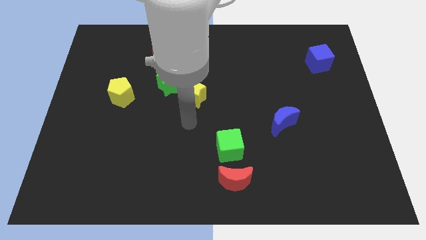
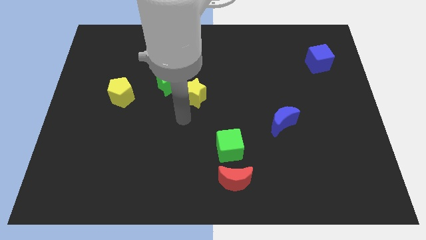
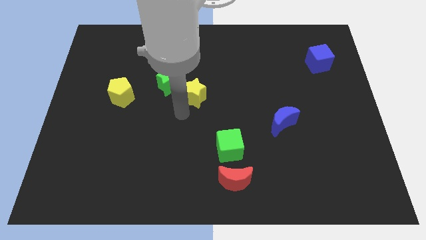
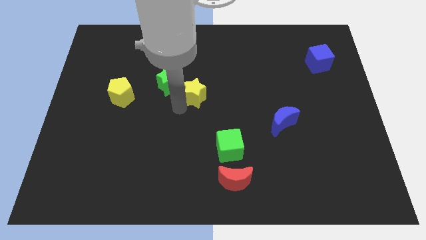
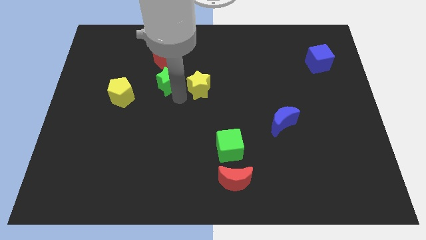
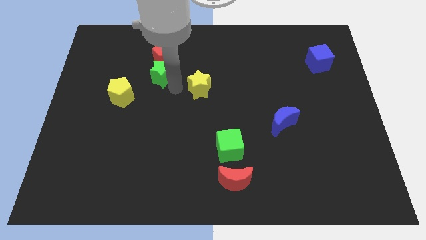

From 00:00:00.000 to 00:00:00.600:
separate the yellow star from the green star

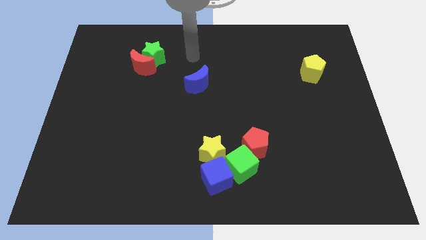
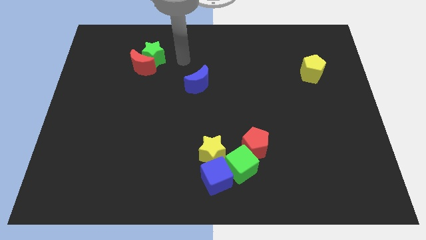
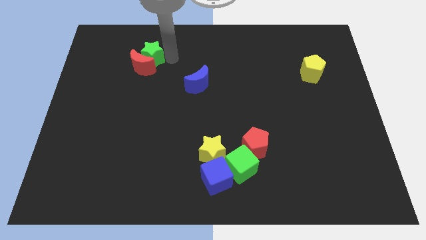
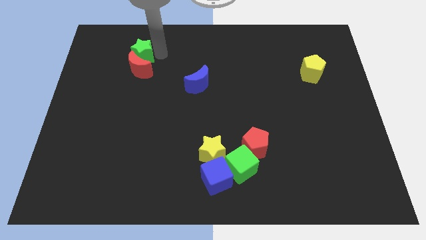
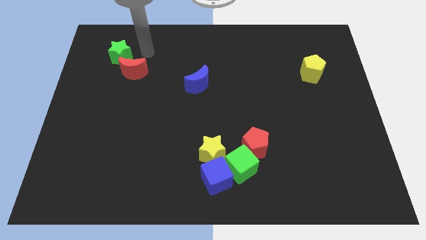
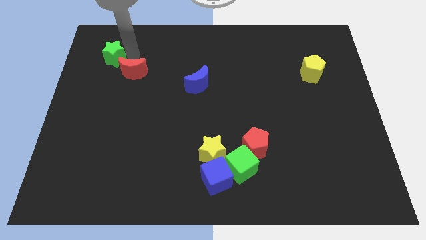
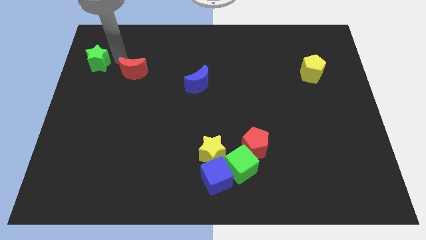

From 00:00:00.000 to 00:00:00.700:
pull the red moon apart from the green star

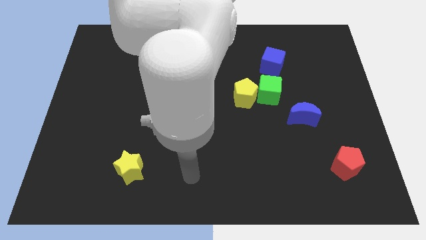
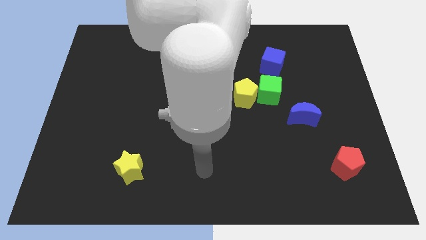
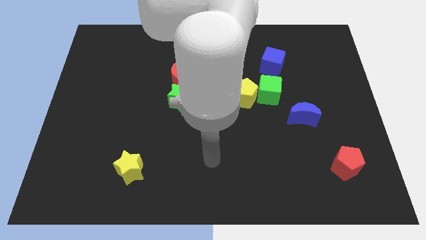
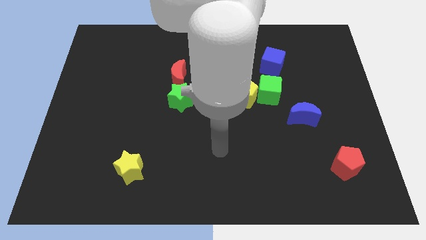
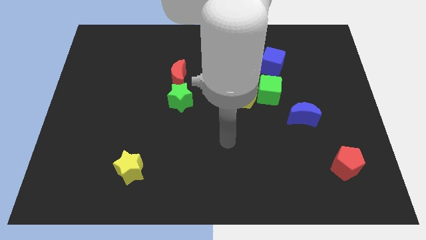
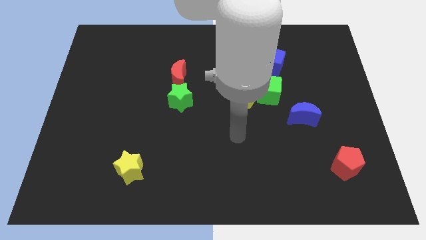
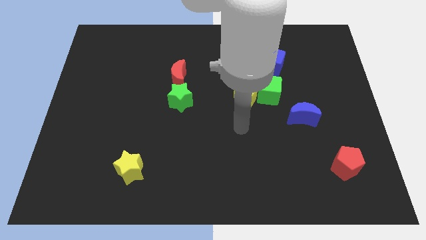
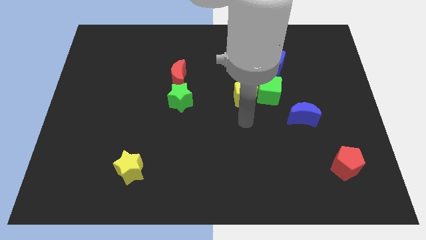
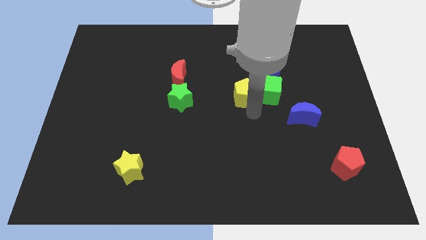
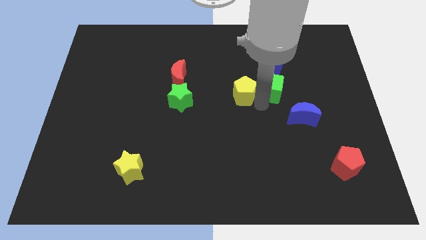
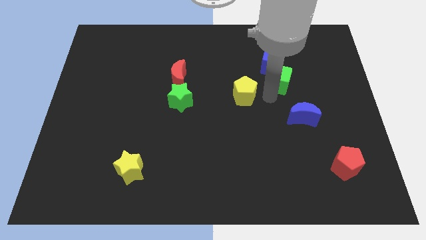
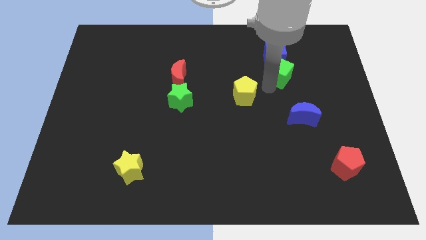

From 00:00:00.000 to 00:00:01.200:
separate the yellow pentagon from the green cube

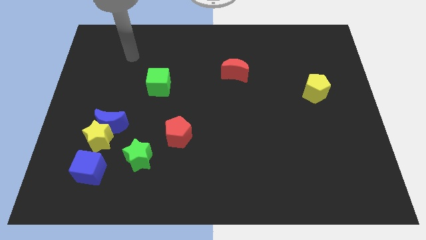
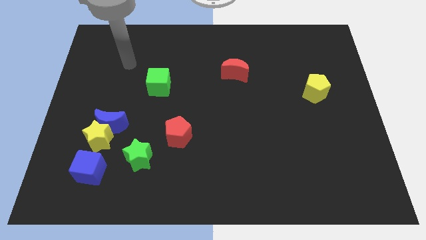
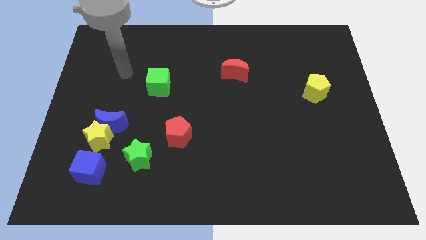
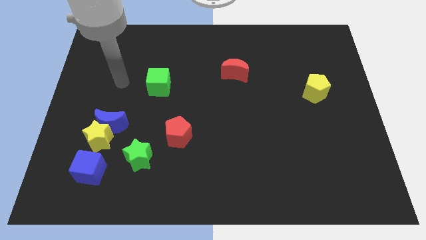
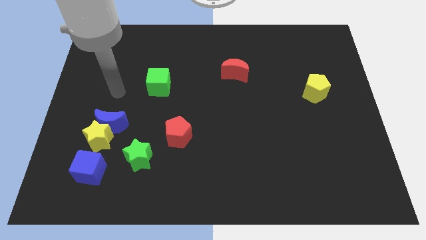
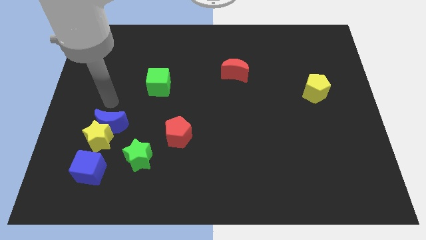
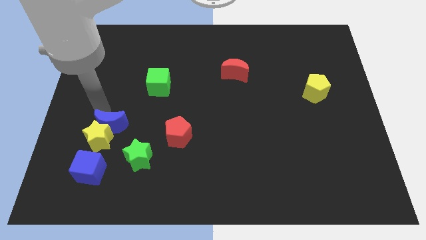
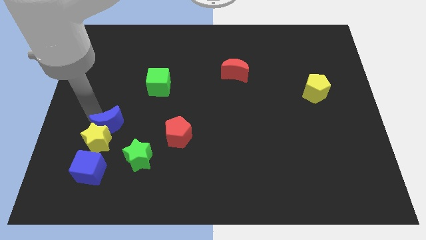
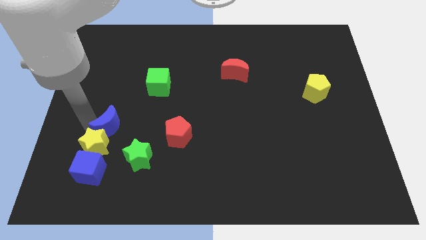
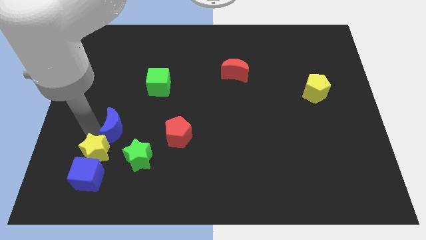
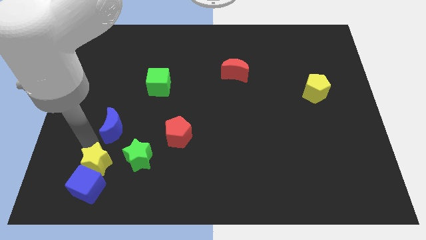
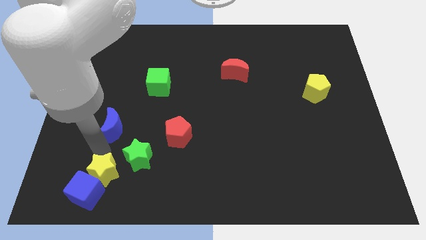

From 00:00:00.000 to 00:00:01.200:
pull the blue moon apart from the yellow star

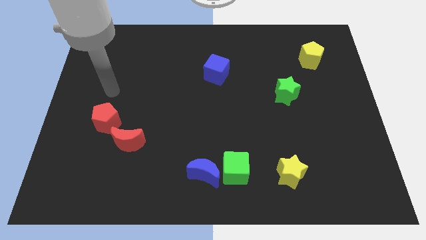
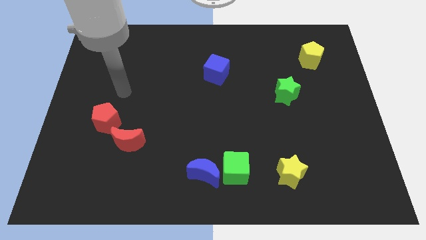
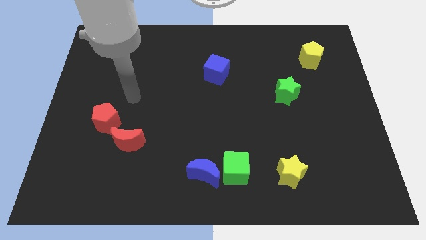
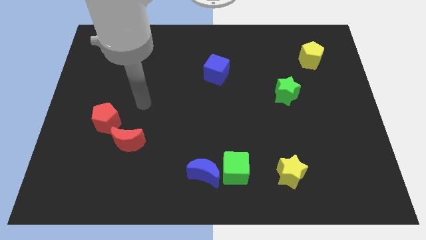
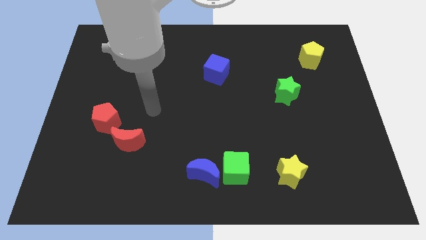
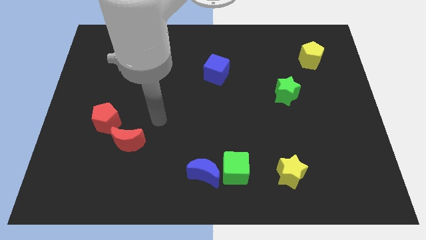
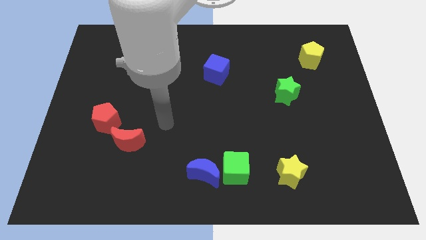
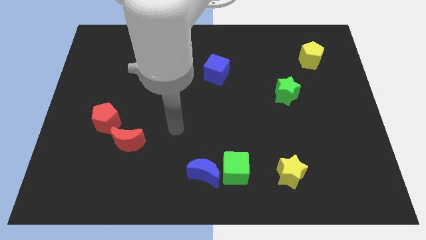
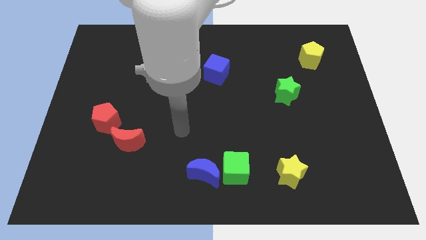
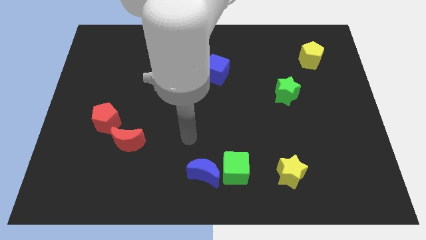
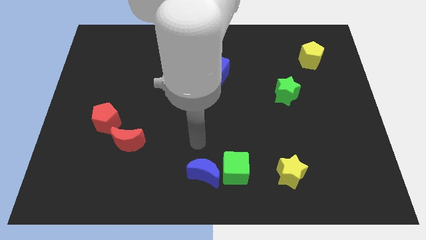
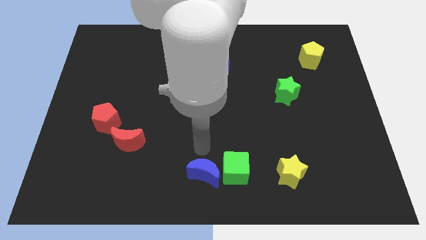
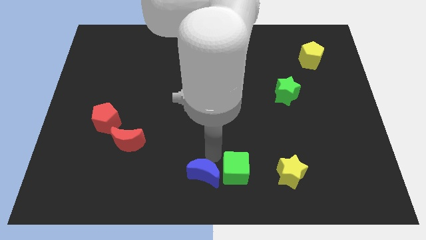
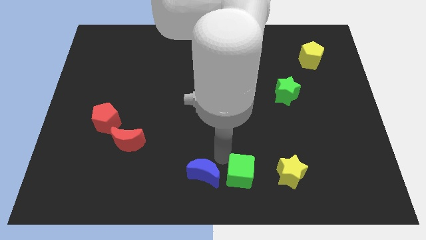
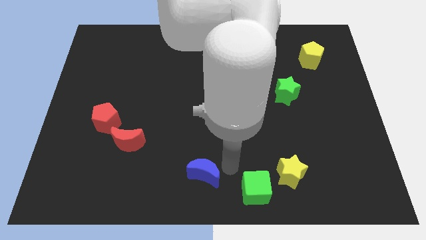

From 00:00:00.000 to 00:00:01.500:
move the blue moon away from the green cube

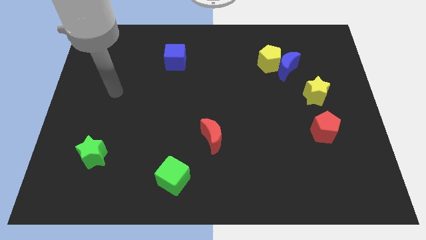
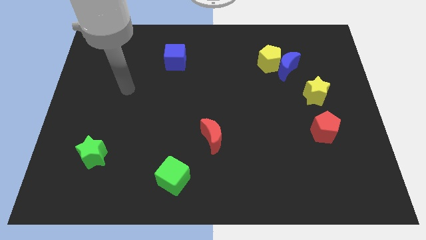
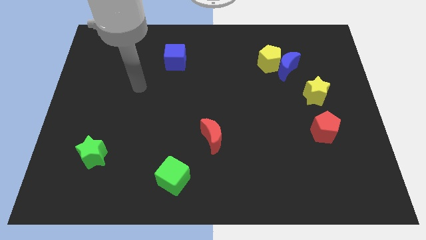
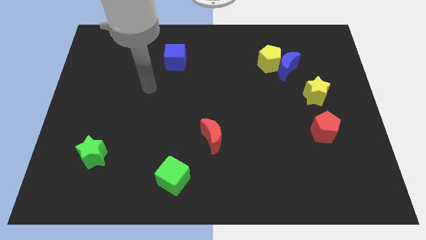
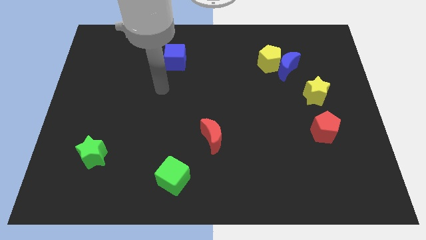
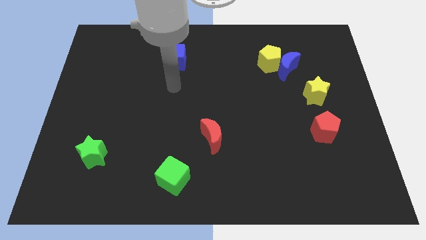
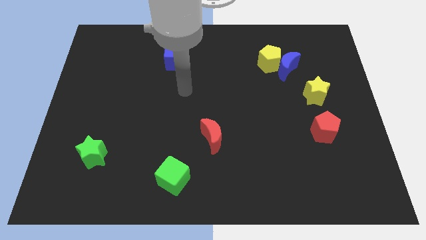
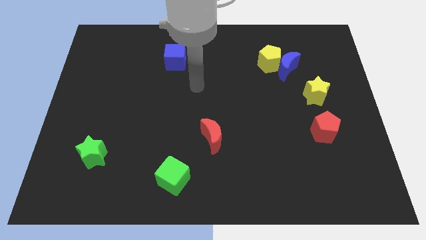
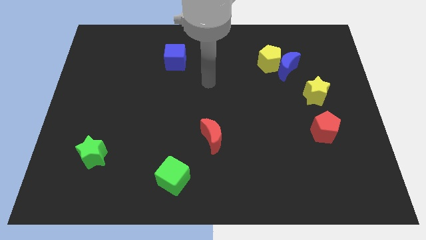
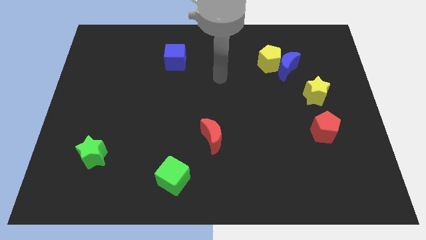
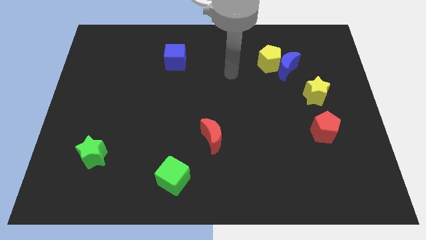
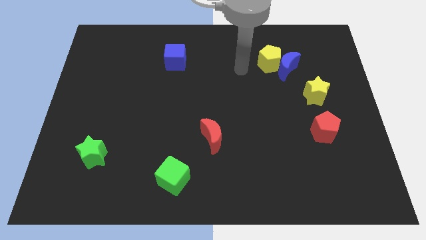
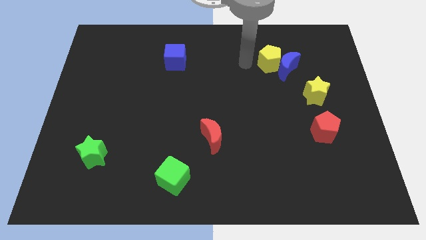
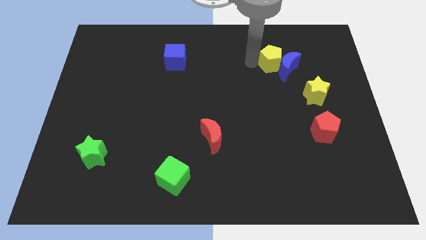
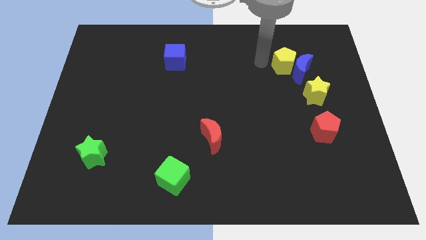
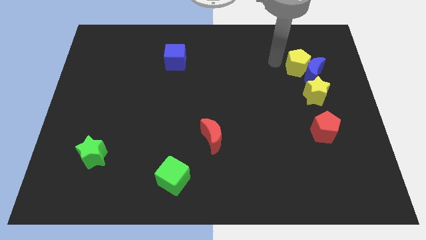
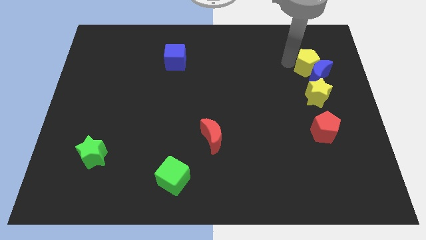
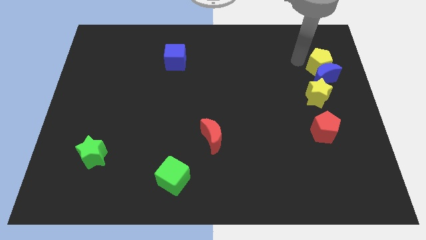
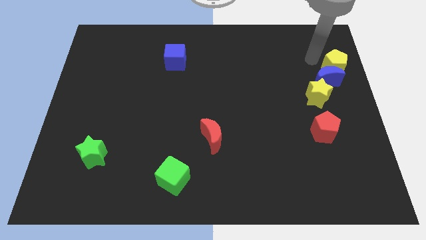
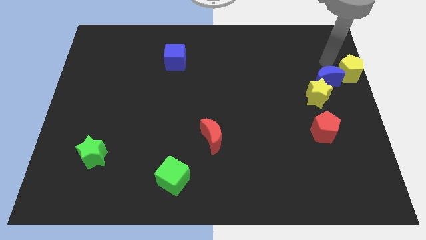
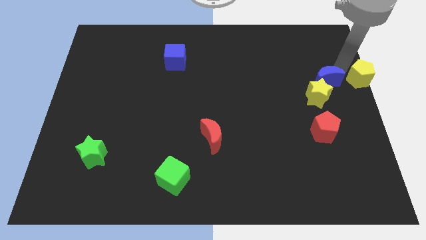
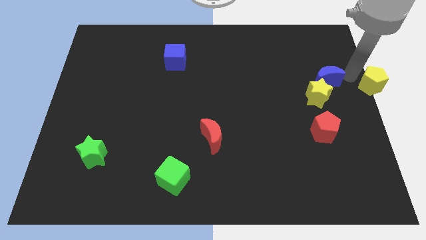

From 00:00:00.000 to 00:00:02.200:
move the blue moon away from the yellow pentagon

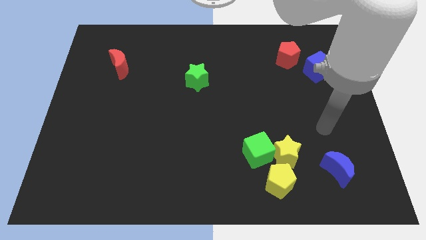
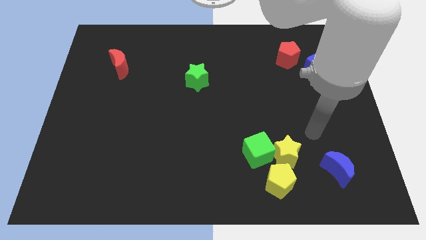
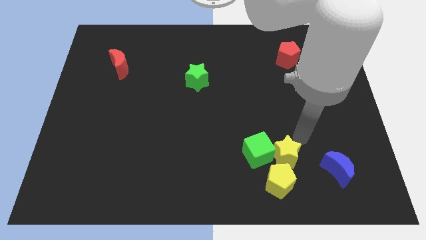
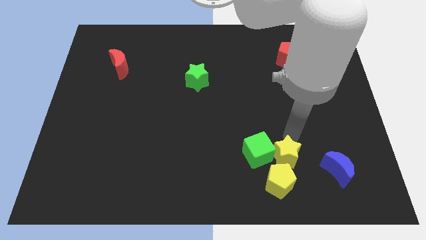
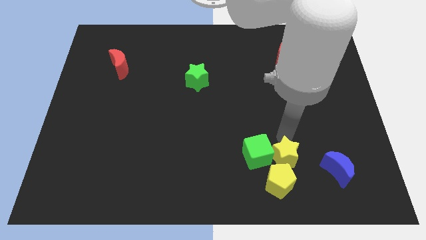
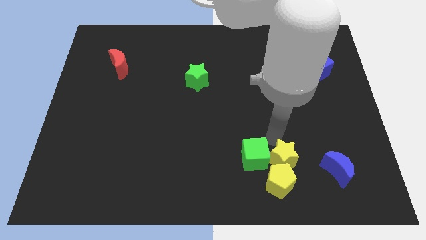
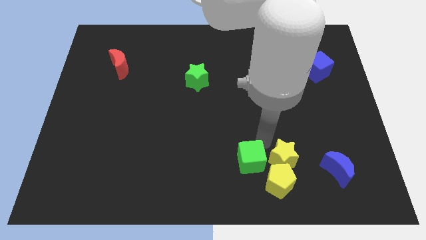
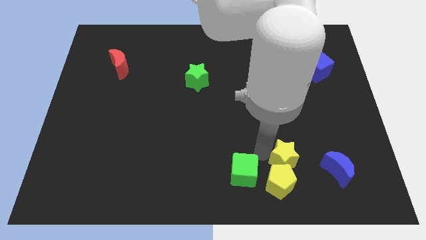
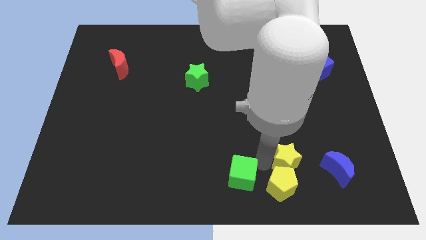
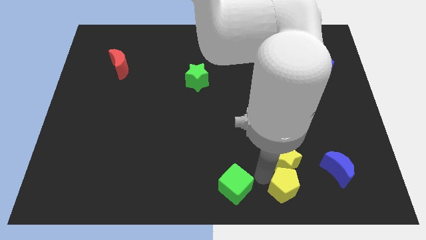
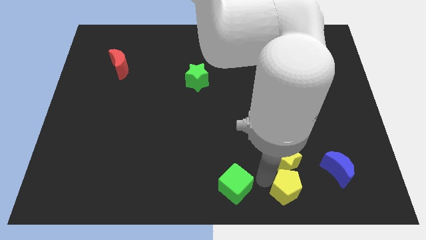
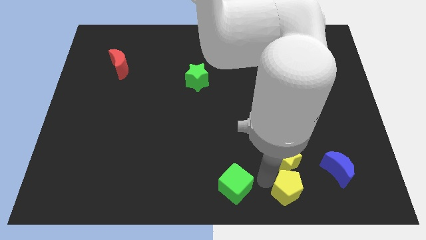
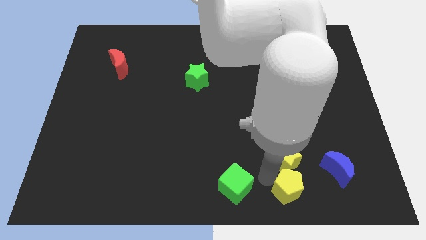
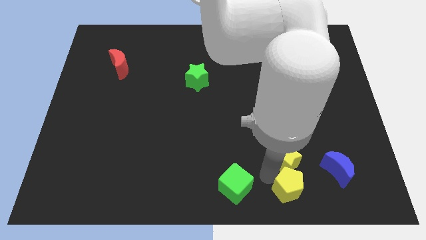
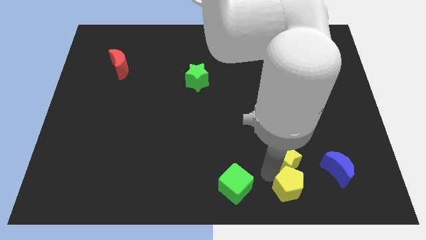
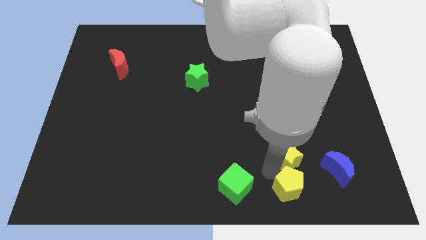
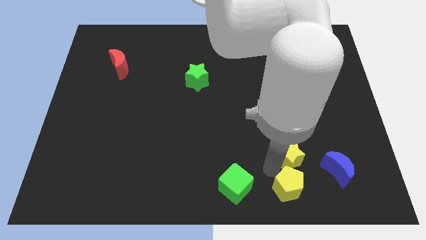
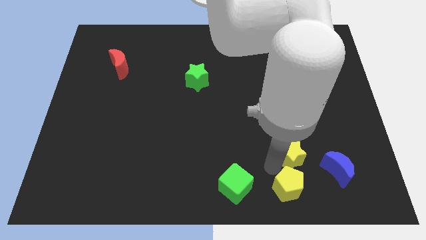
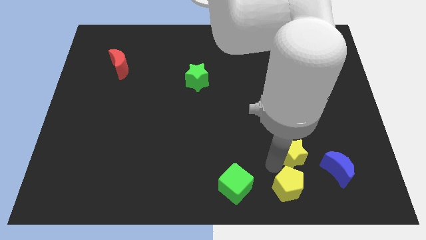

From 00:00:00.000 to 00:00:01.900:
separate the yellow star from the green cube and yellow pentagon
